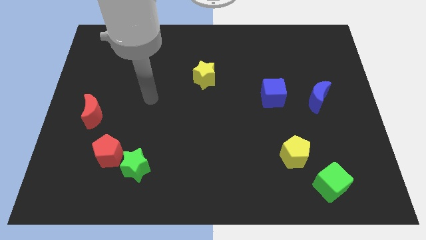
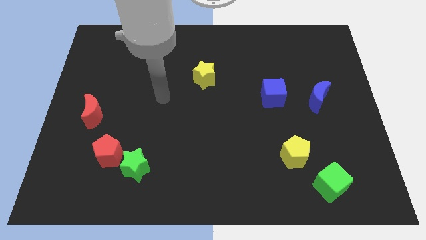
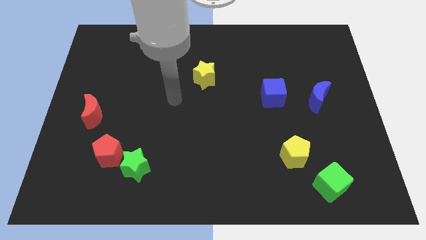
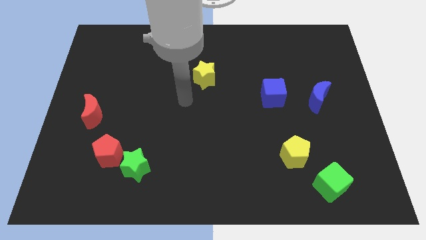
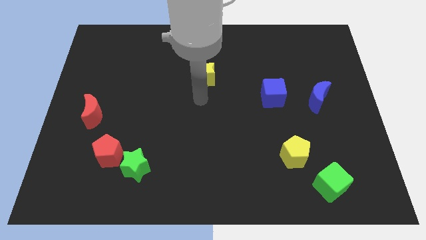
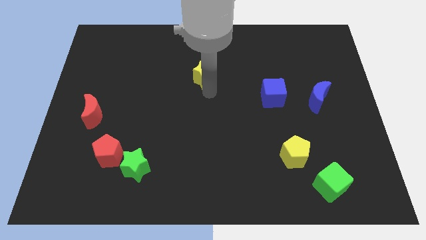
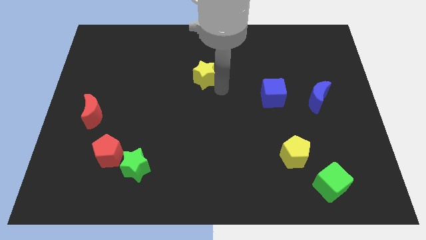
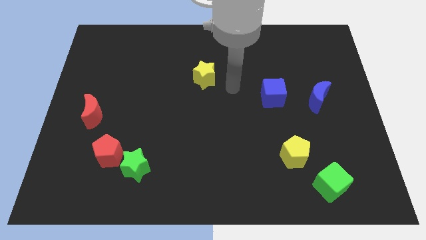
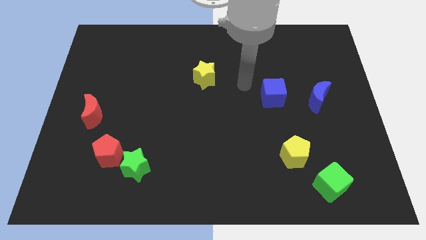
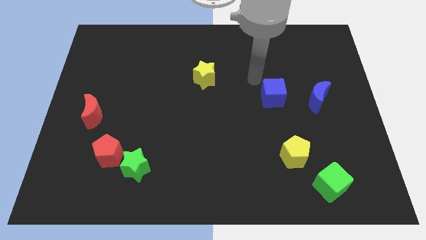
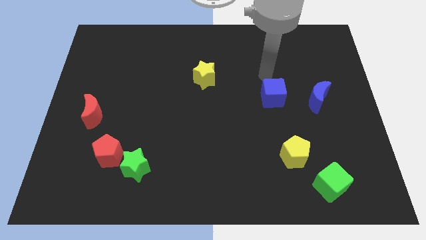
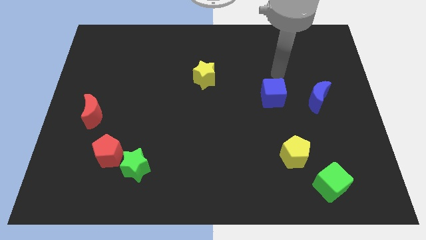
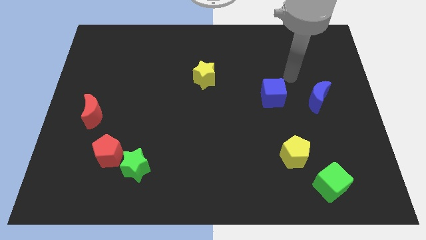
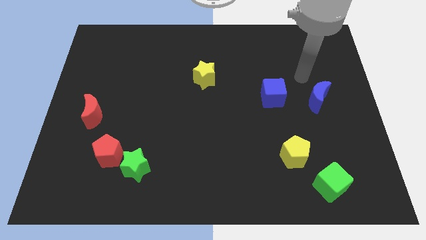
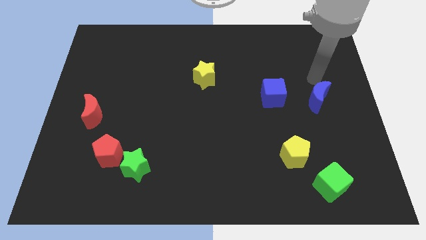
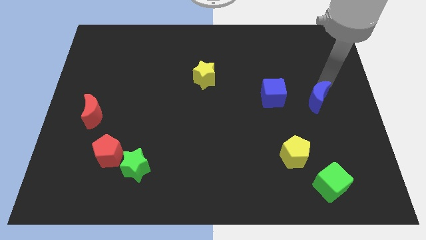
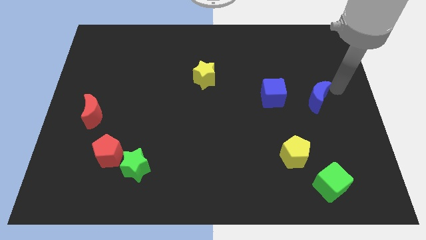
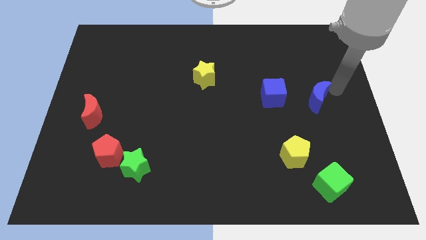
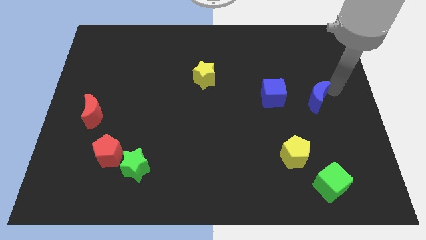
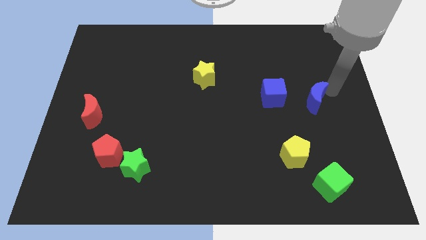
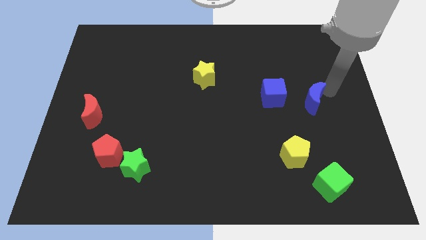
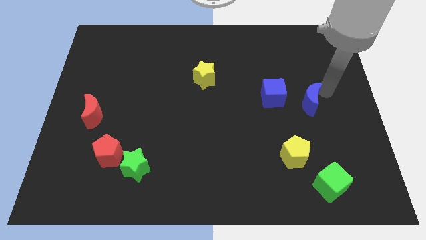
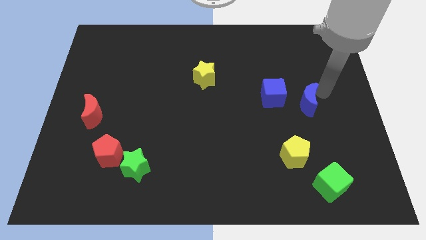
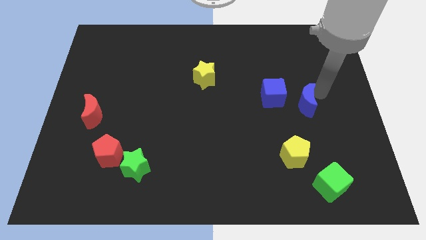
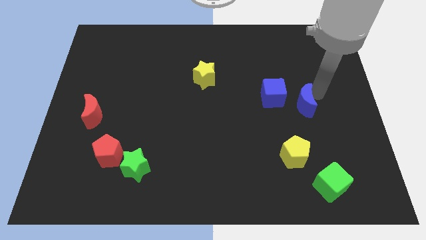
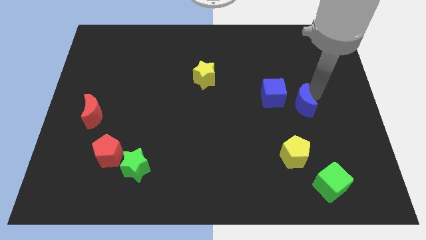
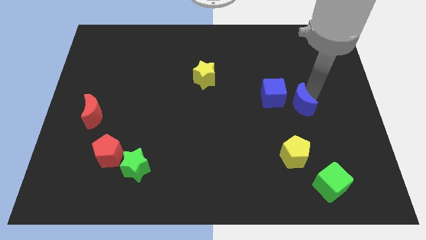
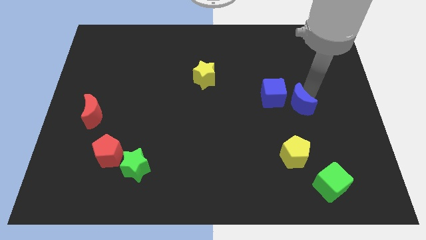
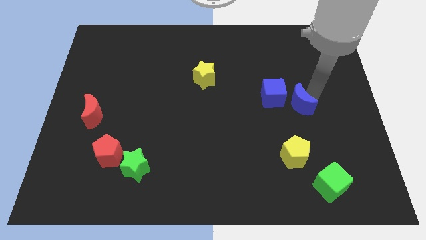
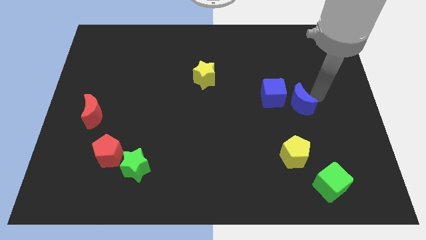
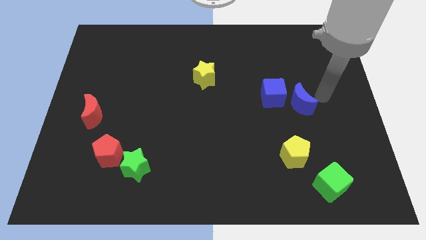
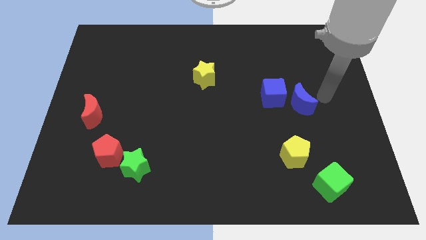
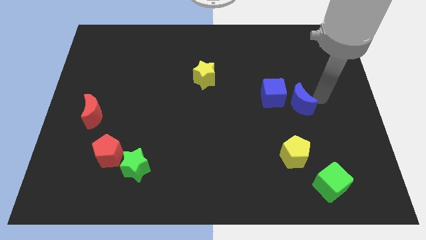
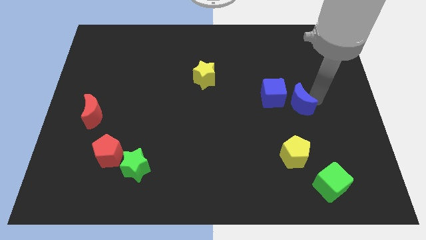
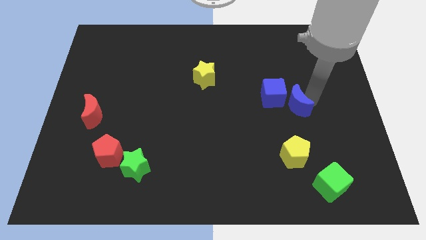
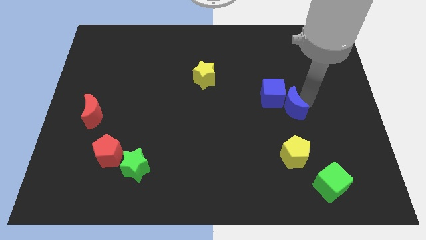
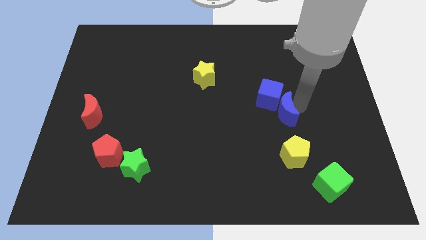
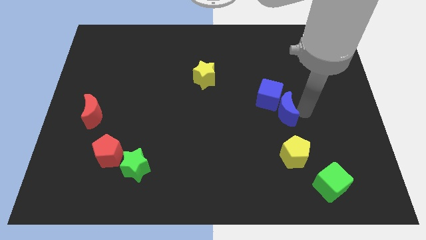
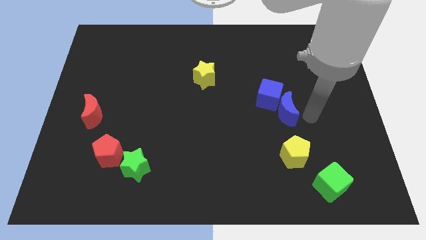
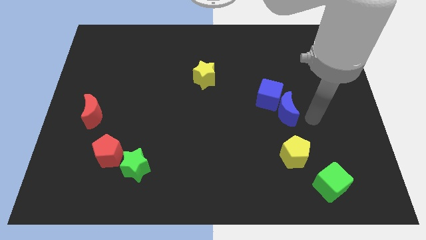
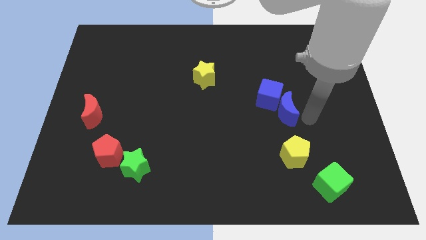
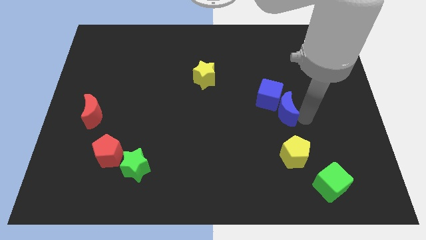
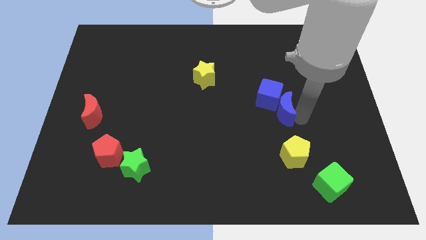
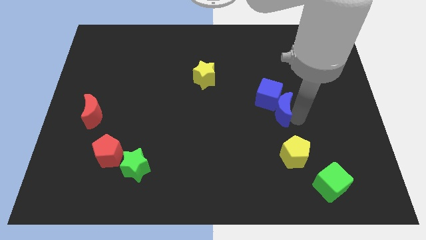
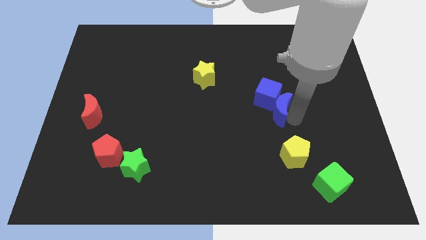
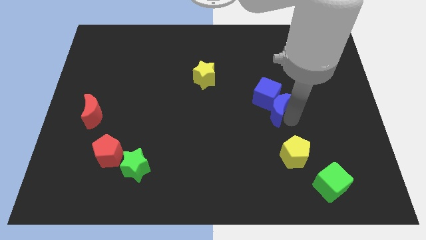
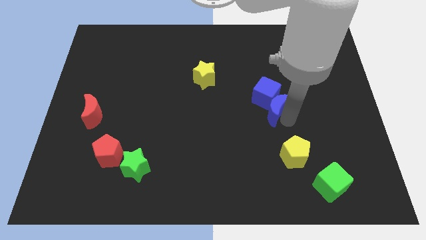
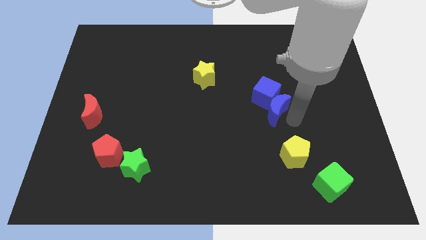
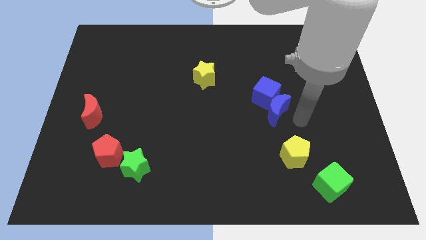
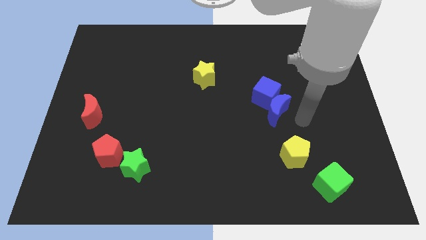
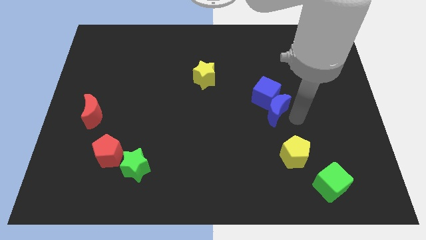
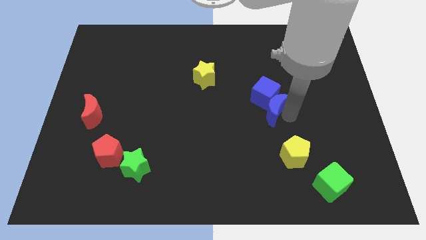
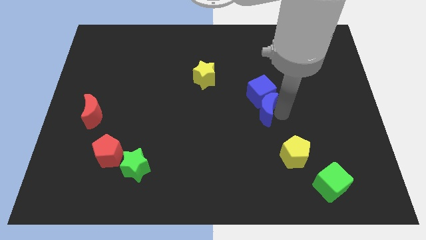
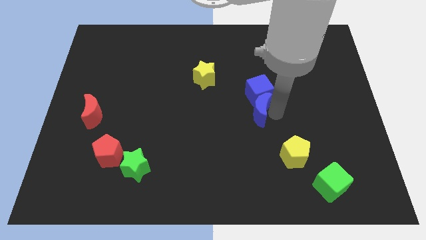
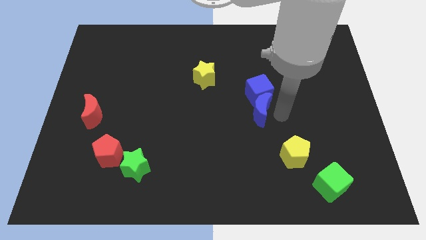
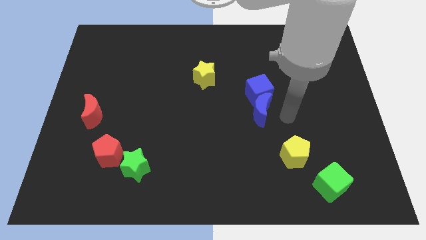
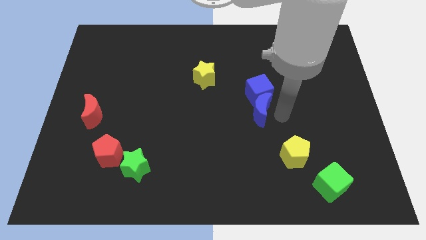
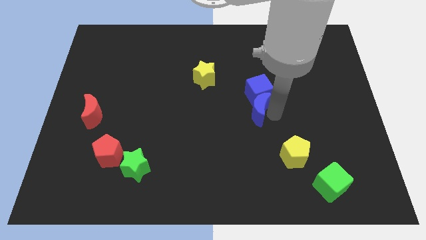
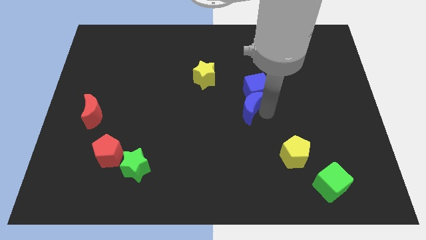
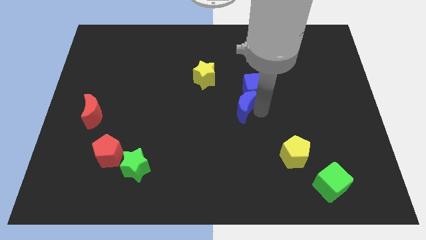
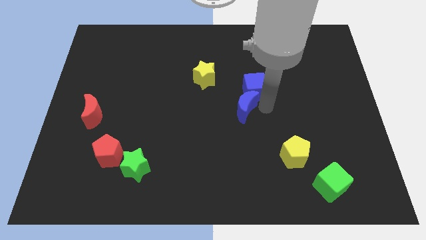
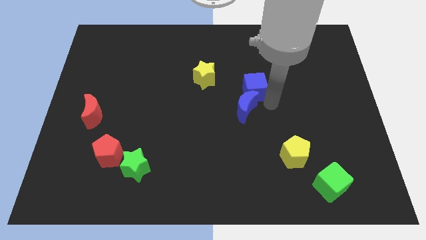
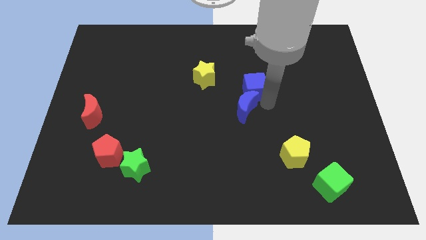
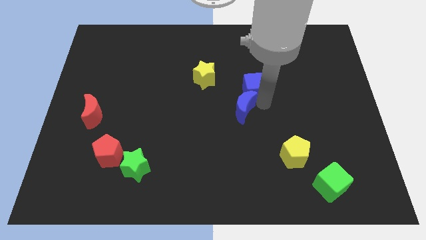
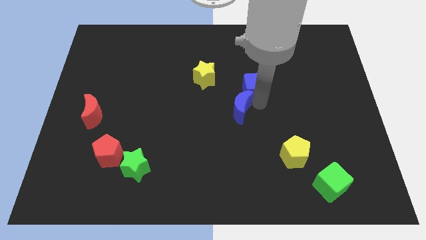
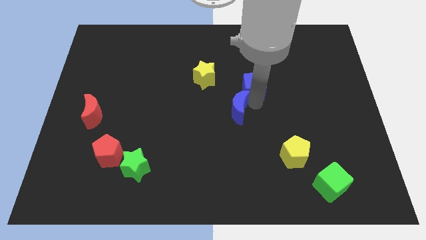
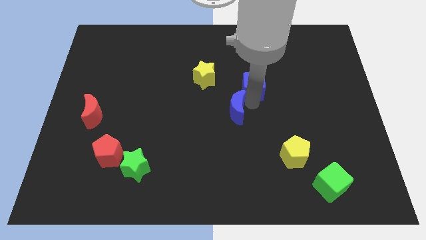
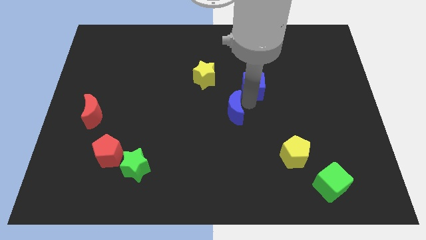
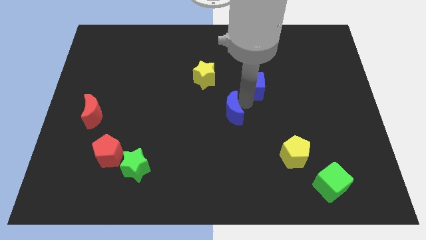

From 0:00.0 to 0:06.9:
push the blue moon left

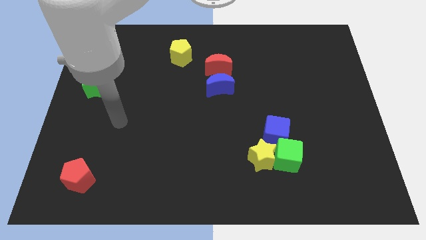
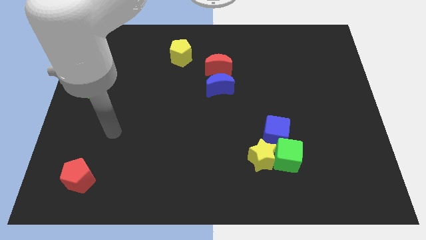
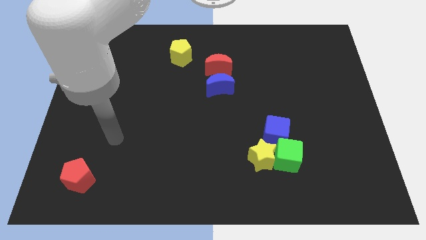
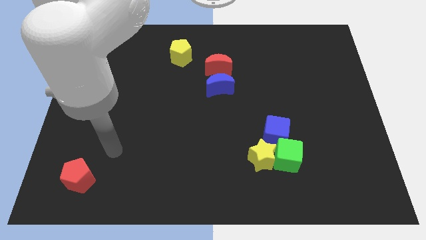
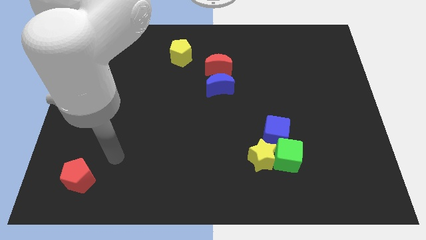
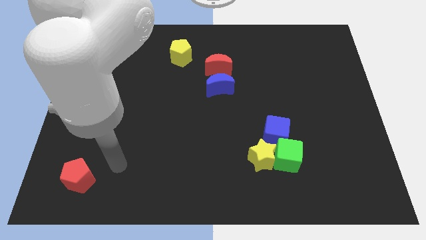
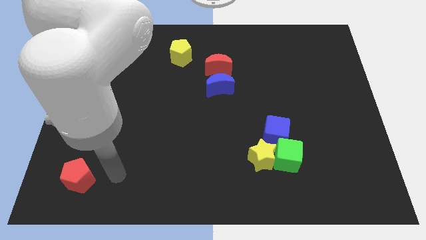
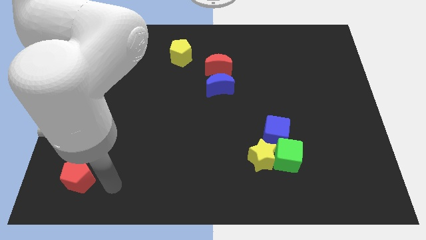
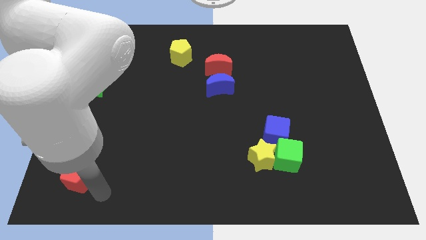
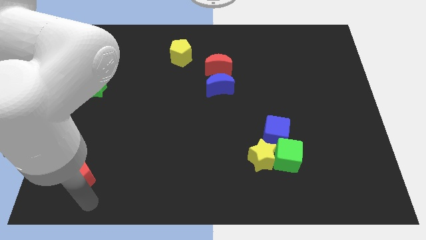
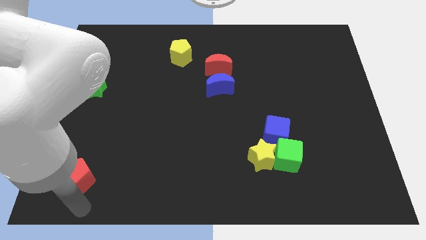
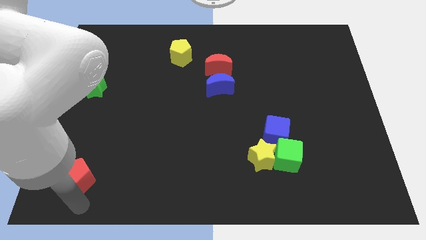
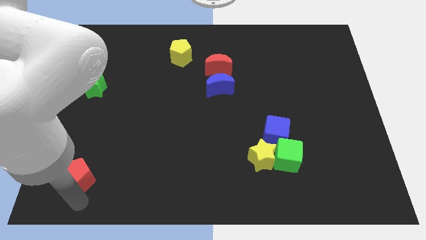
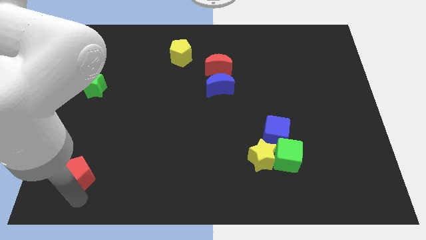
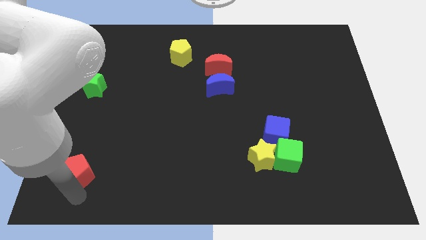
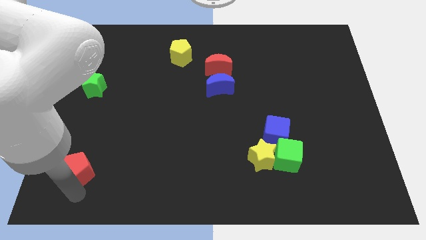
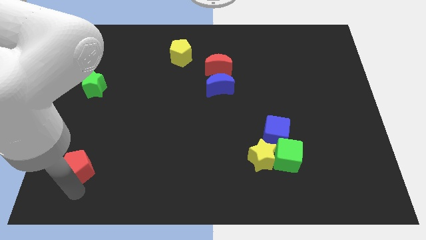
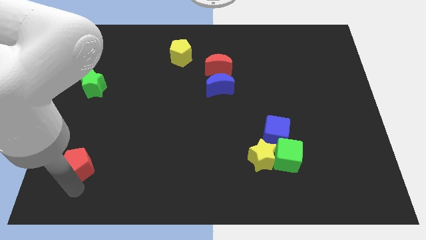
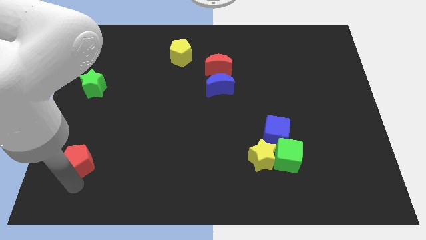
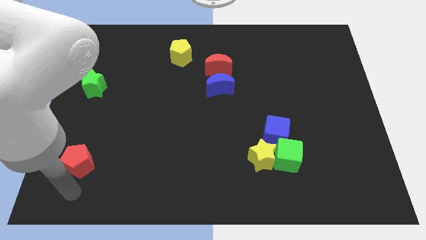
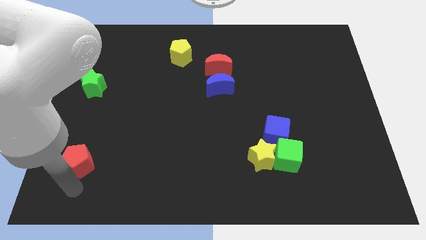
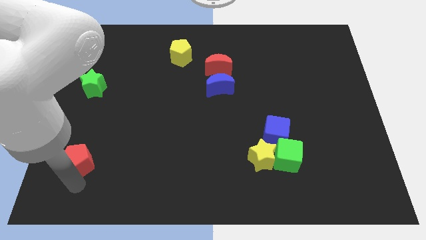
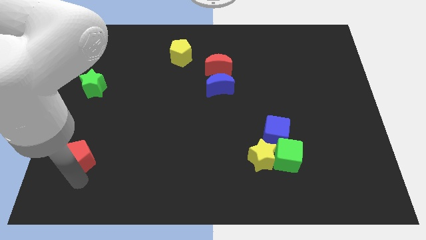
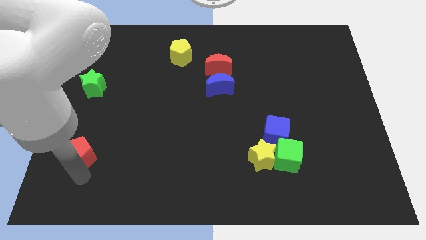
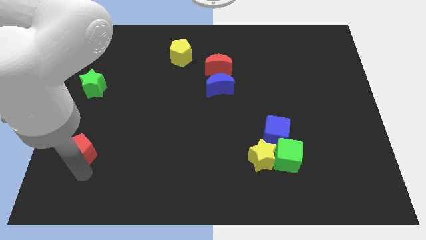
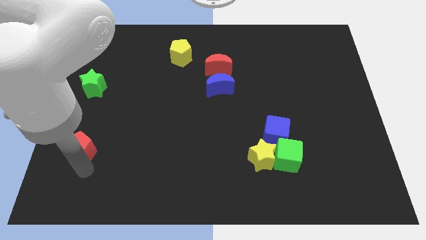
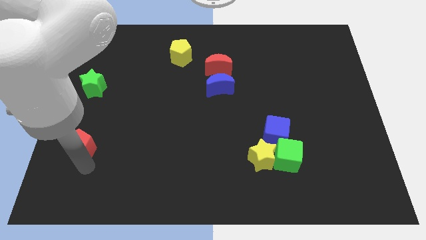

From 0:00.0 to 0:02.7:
slightly push the red pentagon upwards
